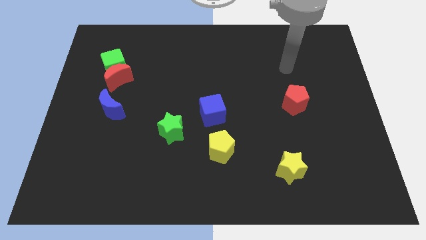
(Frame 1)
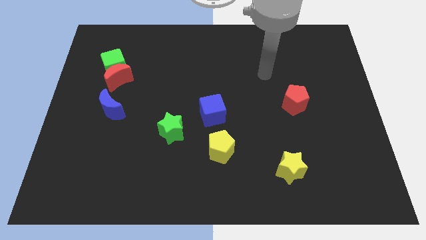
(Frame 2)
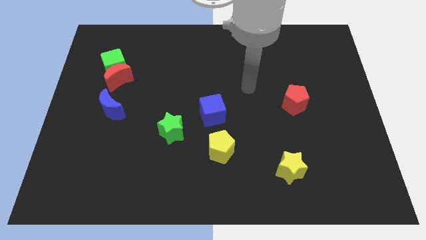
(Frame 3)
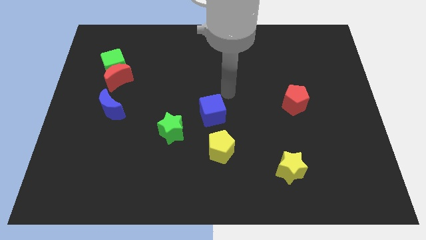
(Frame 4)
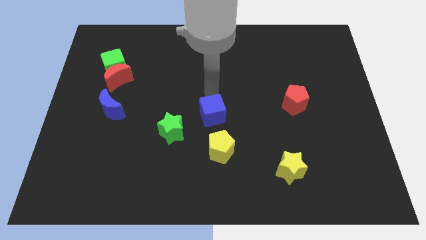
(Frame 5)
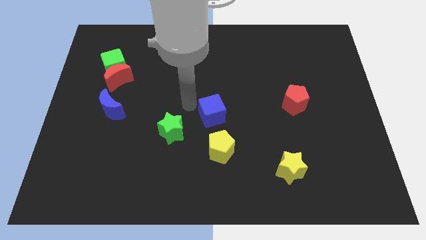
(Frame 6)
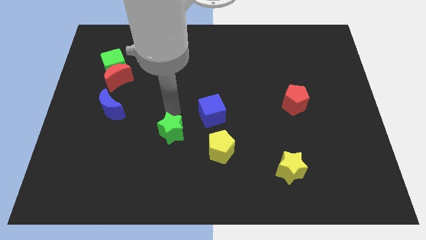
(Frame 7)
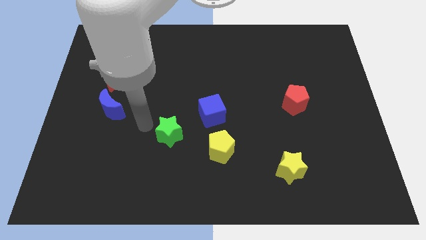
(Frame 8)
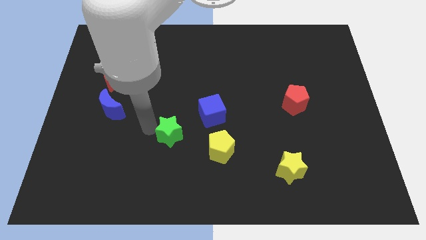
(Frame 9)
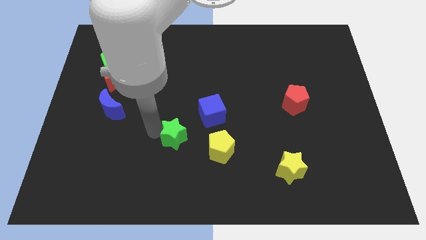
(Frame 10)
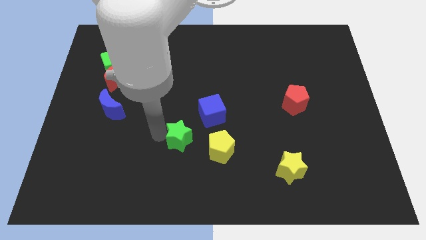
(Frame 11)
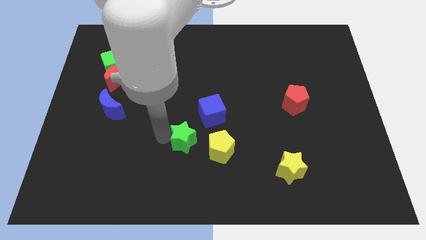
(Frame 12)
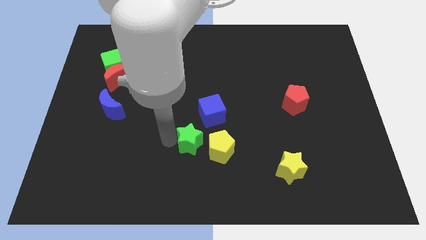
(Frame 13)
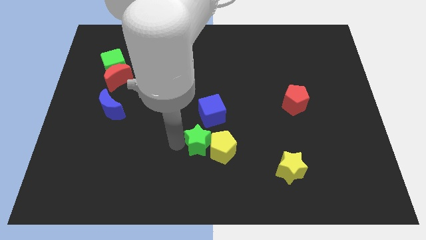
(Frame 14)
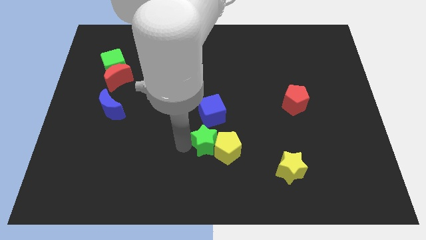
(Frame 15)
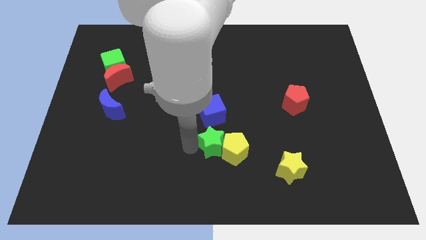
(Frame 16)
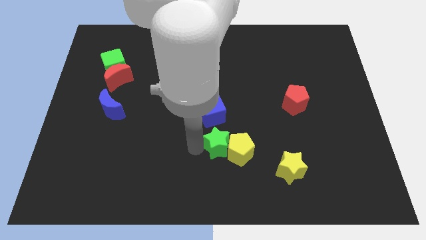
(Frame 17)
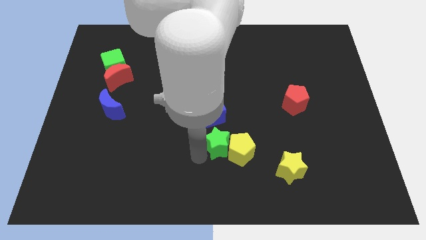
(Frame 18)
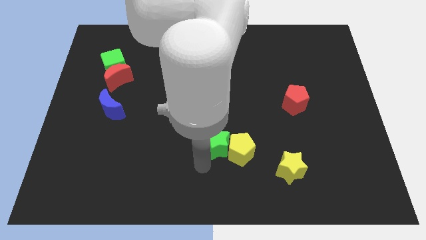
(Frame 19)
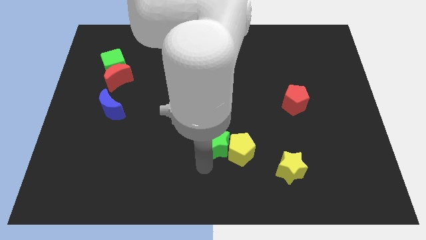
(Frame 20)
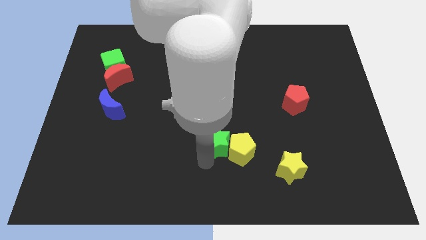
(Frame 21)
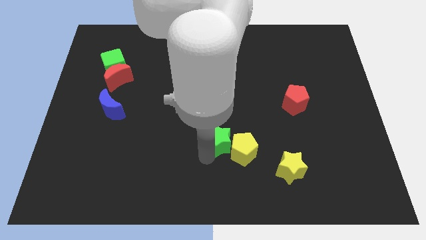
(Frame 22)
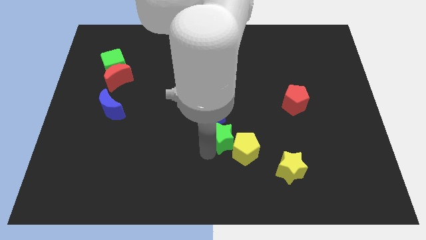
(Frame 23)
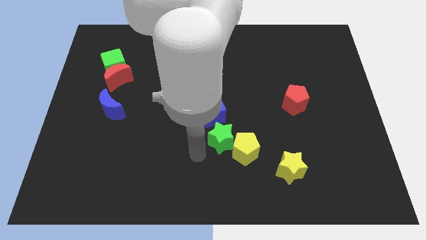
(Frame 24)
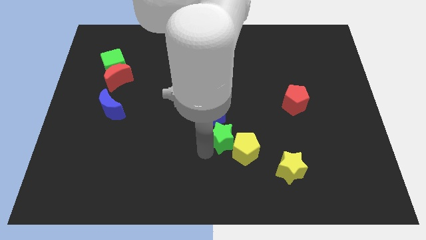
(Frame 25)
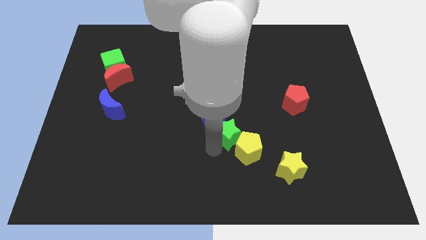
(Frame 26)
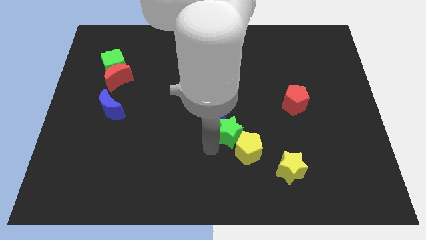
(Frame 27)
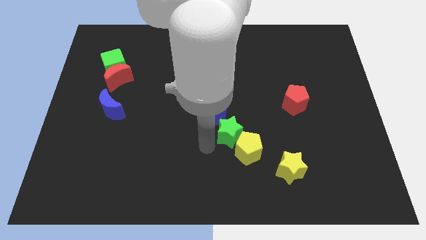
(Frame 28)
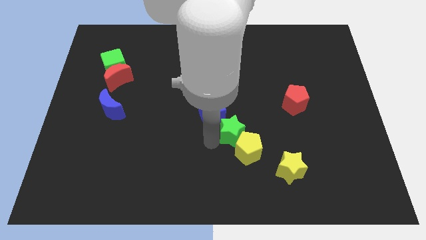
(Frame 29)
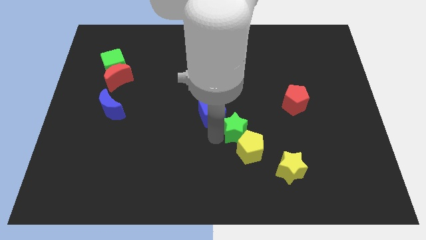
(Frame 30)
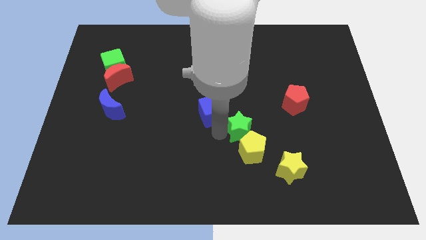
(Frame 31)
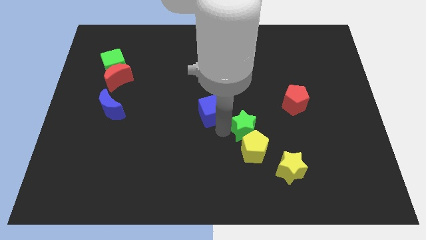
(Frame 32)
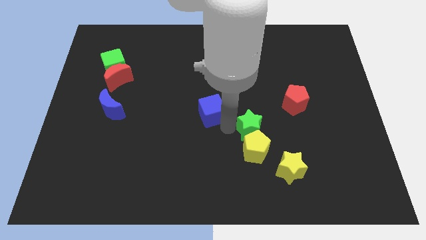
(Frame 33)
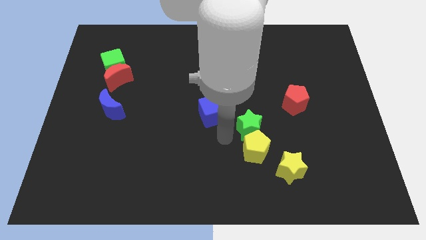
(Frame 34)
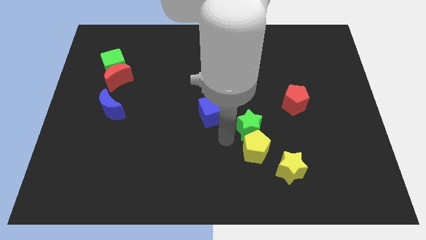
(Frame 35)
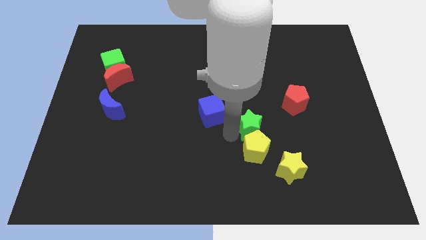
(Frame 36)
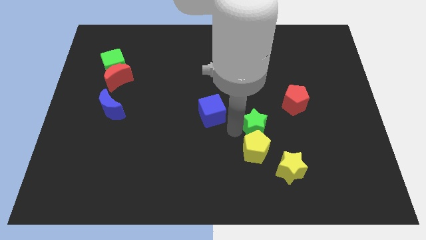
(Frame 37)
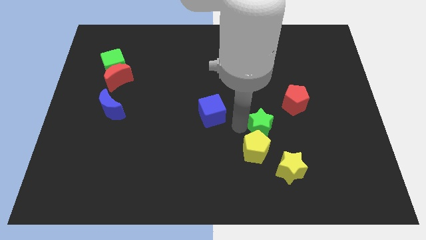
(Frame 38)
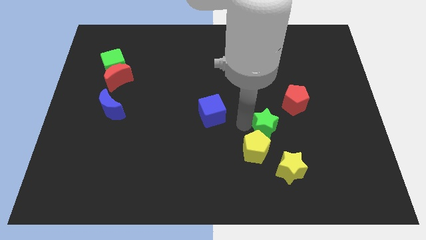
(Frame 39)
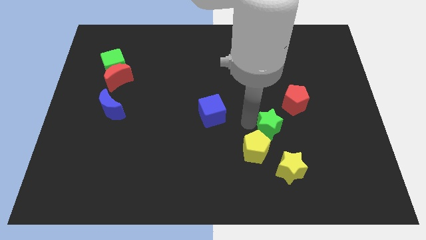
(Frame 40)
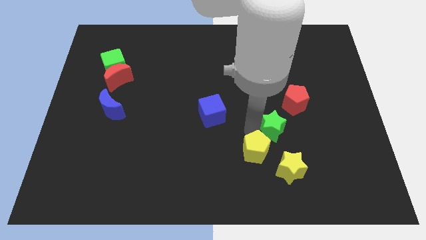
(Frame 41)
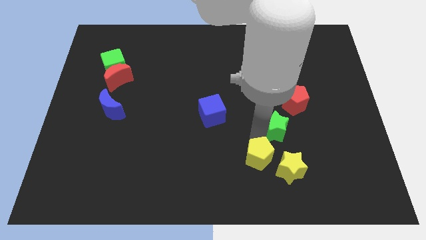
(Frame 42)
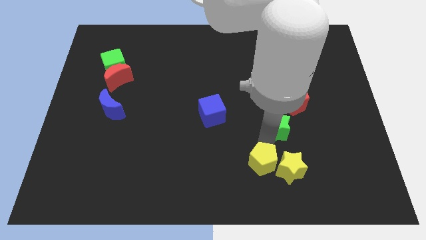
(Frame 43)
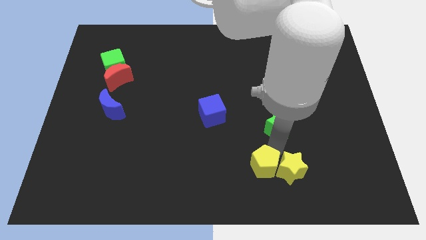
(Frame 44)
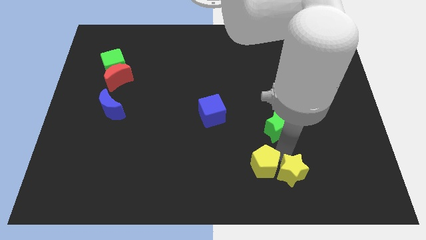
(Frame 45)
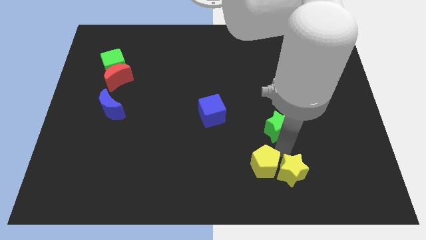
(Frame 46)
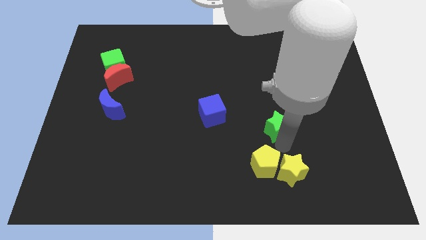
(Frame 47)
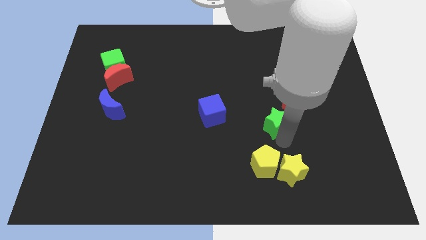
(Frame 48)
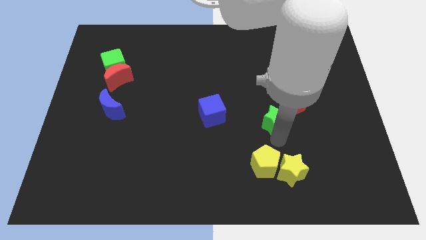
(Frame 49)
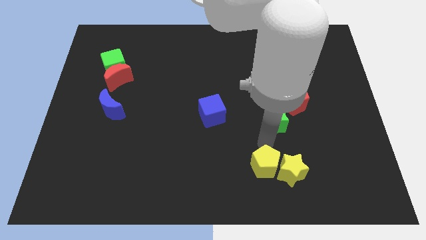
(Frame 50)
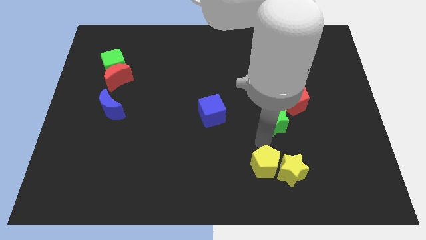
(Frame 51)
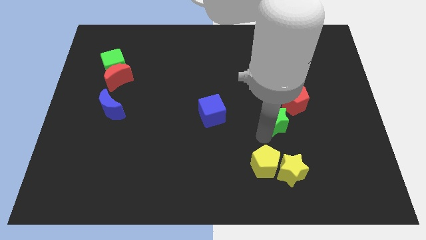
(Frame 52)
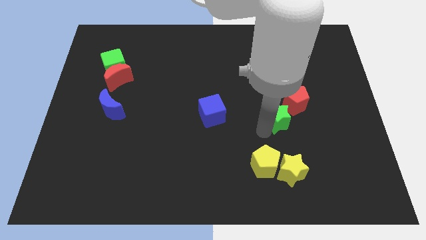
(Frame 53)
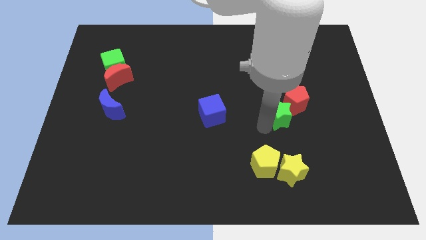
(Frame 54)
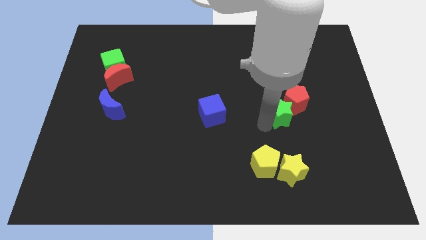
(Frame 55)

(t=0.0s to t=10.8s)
push the green star to the red pentagon

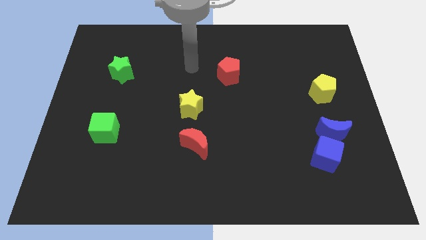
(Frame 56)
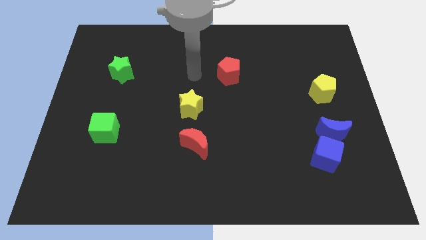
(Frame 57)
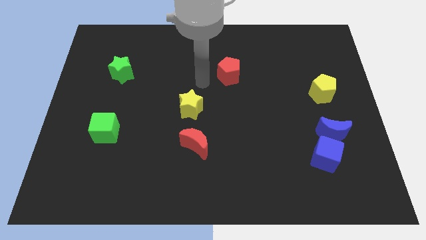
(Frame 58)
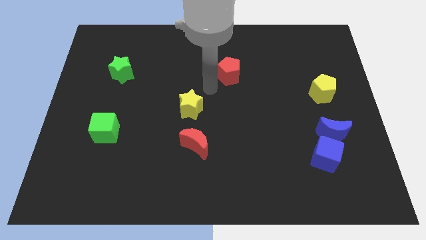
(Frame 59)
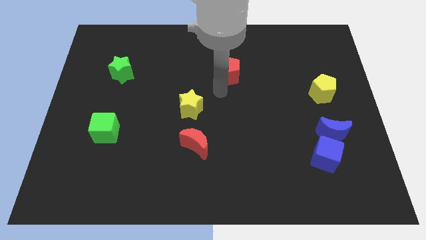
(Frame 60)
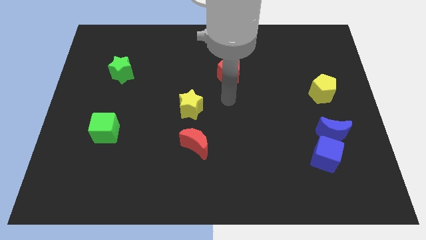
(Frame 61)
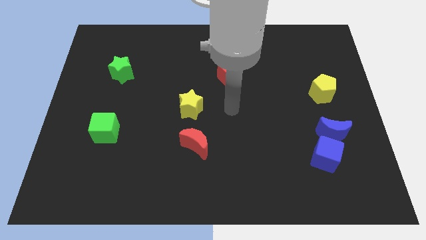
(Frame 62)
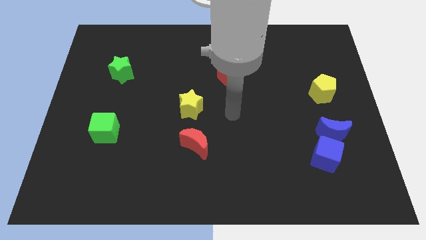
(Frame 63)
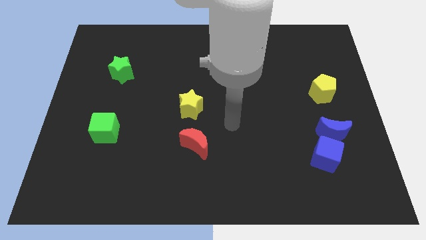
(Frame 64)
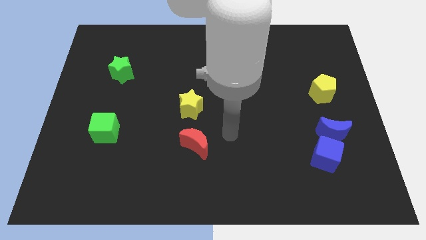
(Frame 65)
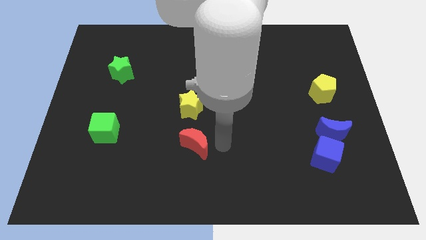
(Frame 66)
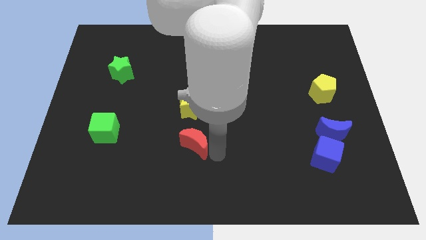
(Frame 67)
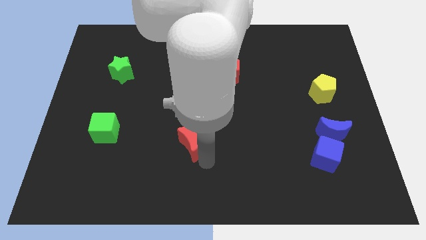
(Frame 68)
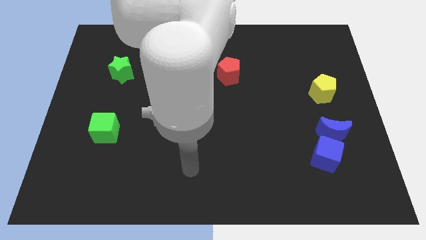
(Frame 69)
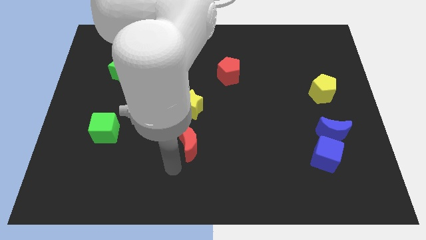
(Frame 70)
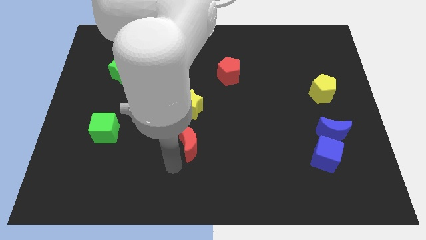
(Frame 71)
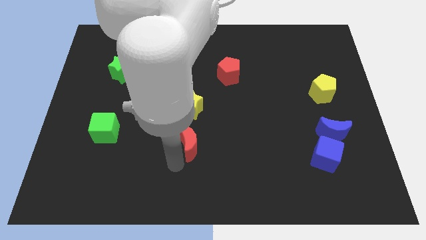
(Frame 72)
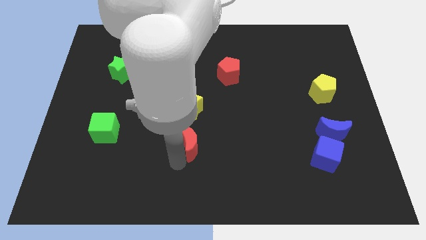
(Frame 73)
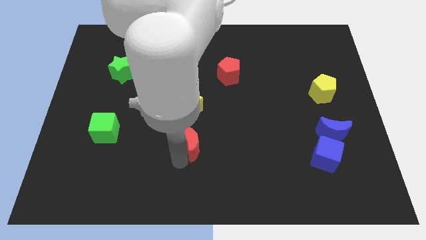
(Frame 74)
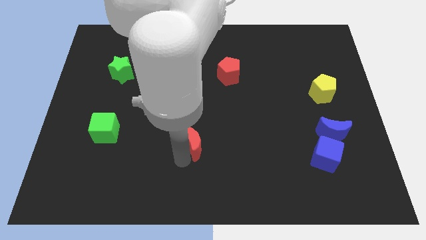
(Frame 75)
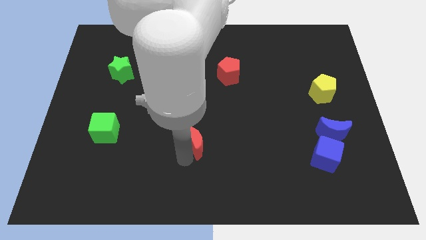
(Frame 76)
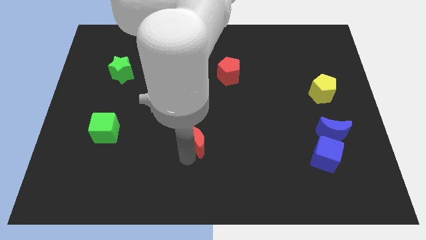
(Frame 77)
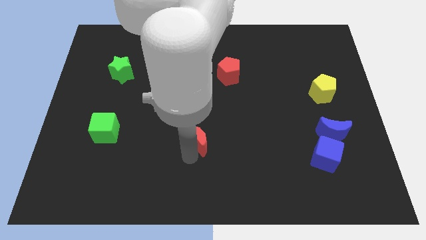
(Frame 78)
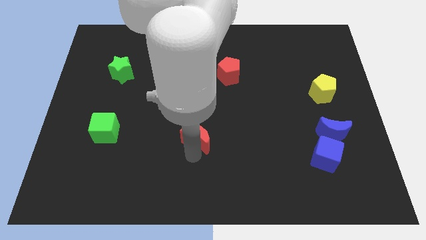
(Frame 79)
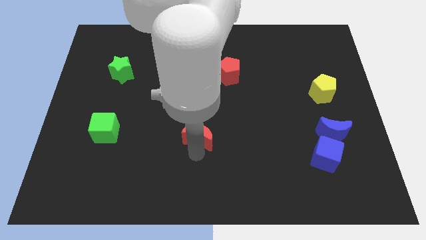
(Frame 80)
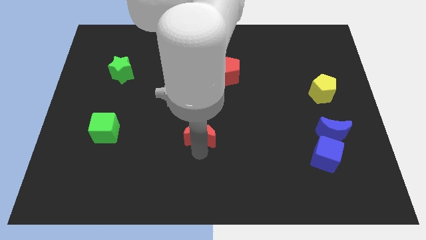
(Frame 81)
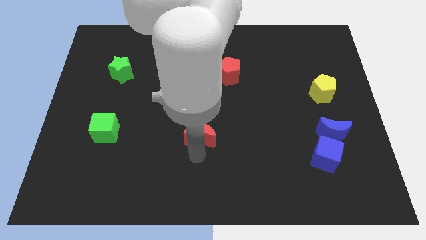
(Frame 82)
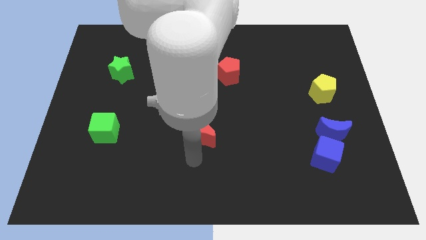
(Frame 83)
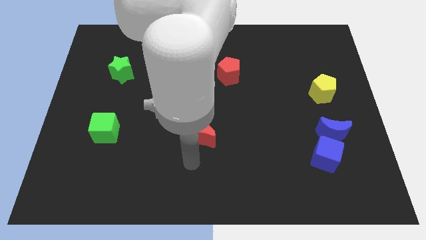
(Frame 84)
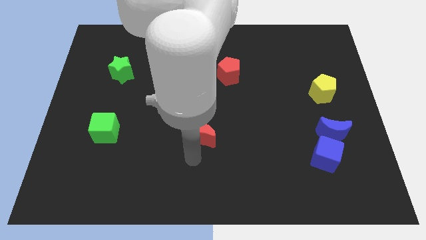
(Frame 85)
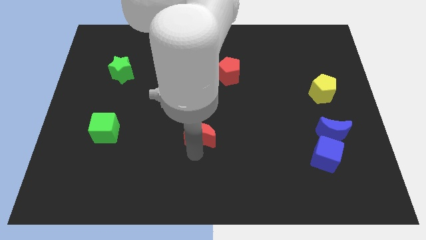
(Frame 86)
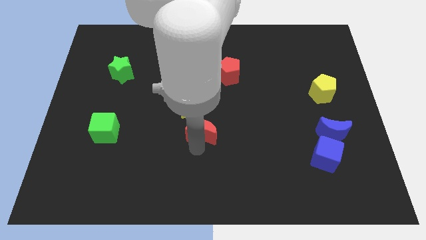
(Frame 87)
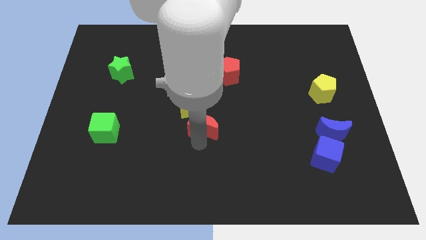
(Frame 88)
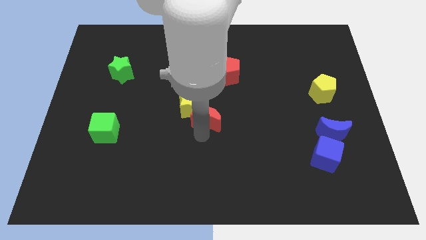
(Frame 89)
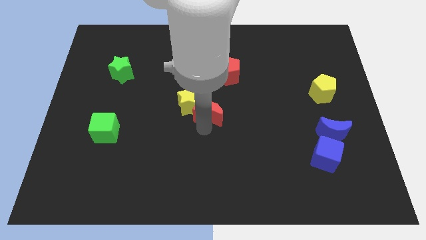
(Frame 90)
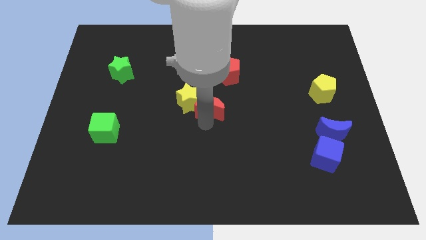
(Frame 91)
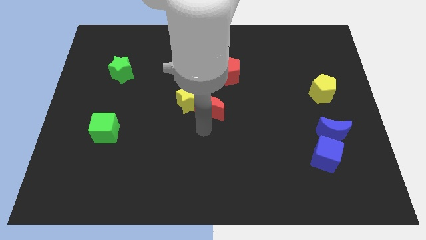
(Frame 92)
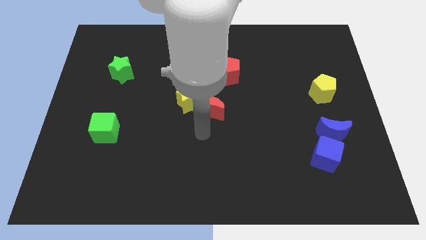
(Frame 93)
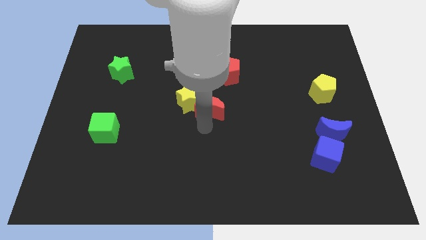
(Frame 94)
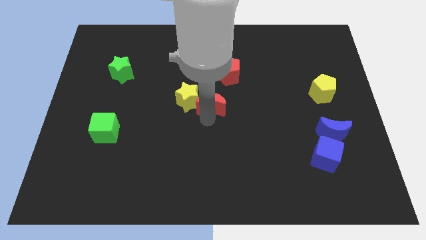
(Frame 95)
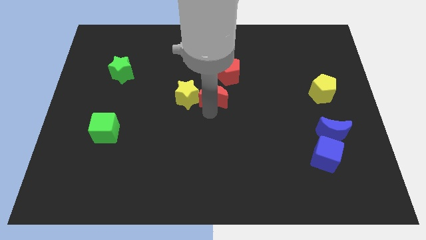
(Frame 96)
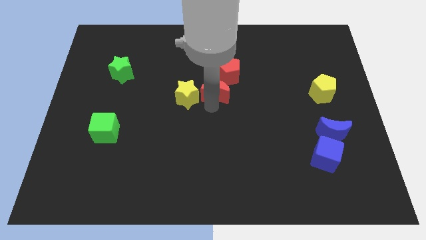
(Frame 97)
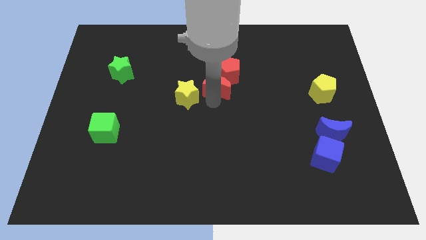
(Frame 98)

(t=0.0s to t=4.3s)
put the red moon next to the red pentagon
